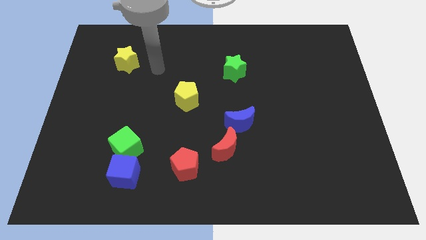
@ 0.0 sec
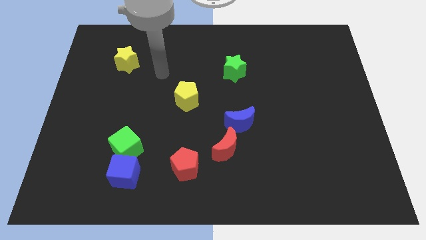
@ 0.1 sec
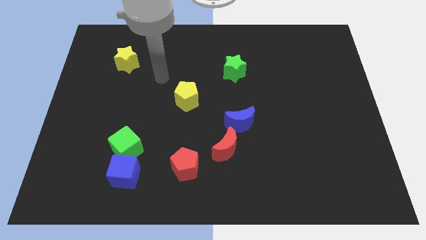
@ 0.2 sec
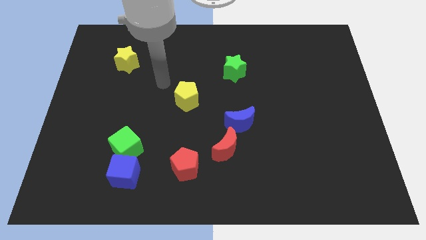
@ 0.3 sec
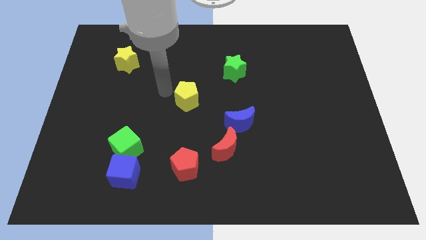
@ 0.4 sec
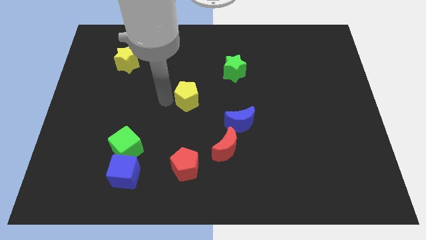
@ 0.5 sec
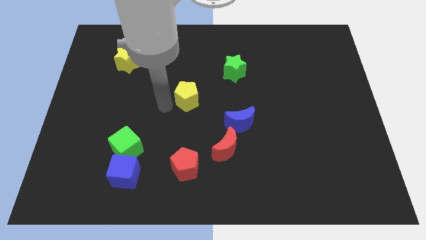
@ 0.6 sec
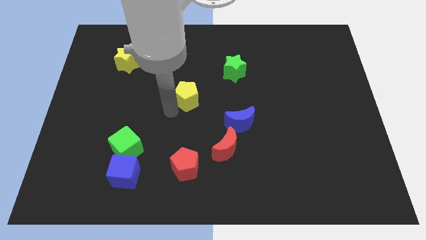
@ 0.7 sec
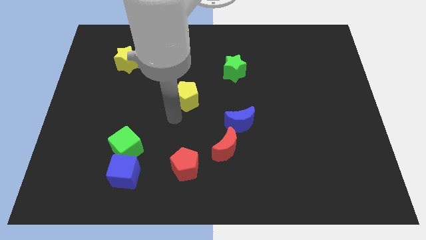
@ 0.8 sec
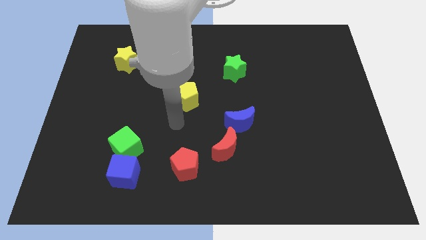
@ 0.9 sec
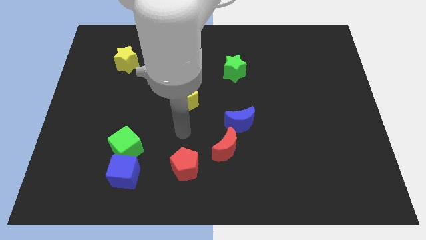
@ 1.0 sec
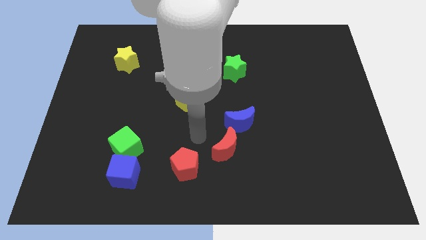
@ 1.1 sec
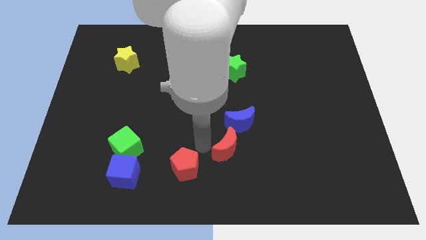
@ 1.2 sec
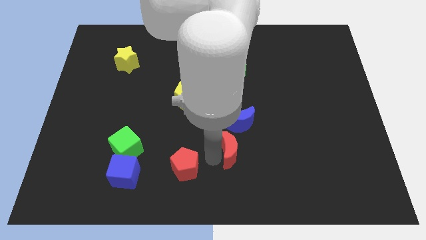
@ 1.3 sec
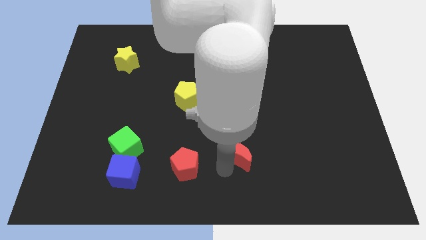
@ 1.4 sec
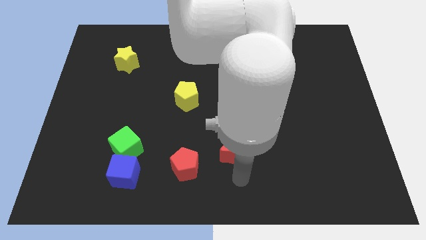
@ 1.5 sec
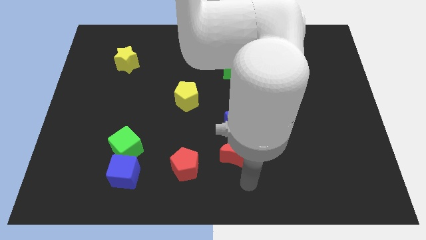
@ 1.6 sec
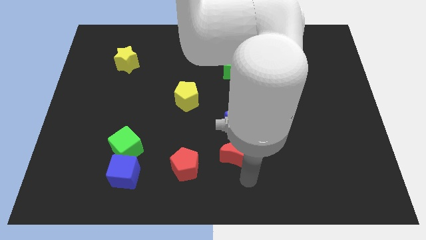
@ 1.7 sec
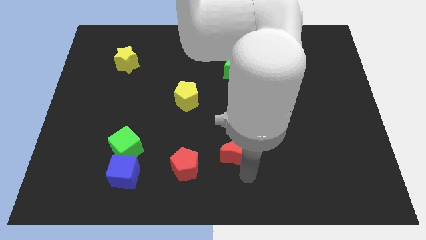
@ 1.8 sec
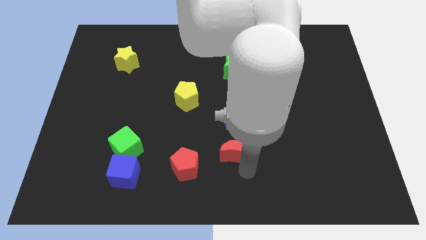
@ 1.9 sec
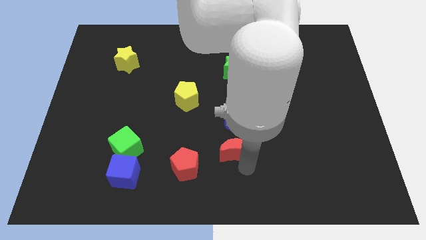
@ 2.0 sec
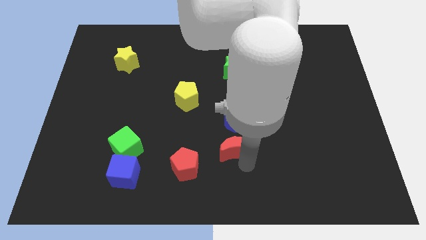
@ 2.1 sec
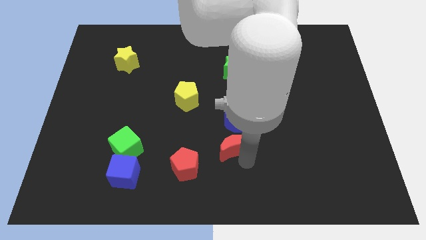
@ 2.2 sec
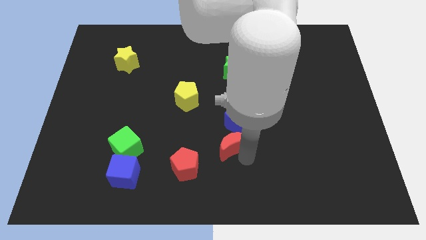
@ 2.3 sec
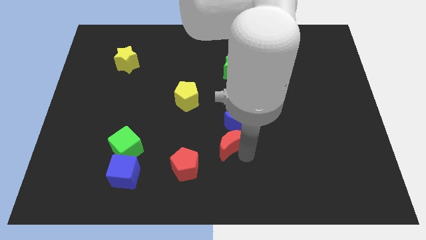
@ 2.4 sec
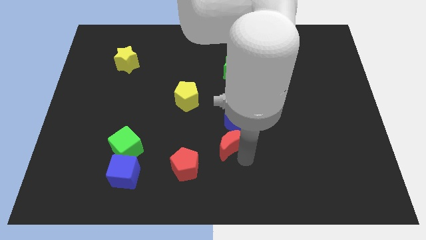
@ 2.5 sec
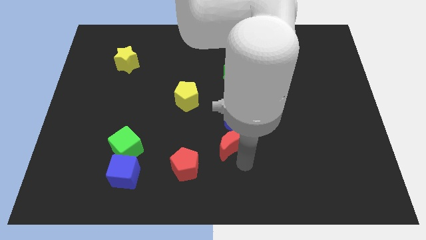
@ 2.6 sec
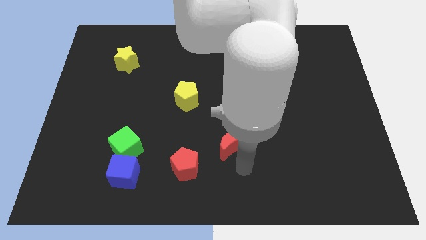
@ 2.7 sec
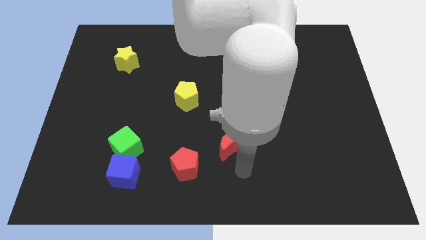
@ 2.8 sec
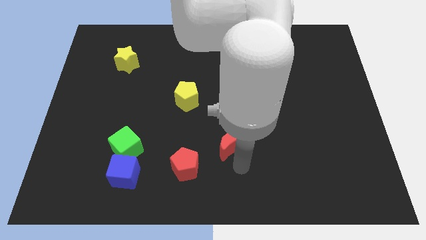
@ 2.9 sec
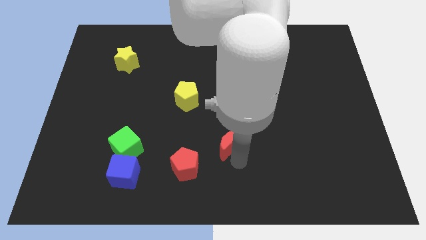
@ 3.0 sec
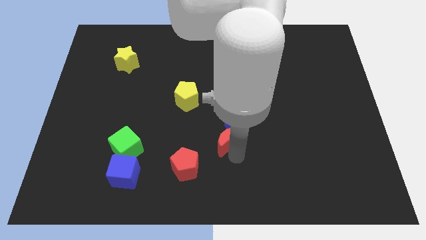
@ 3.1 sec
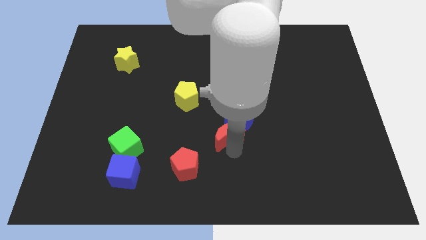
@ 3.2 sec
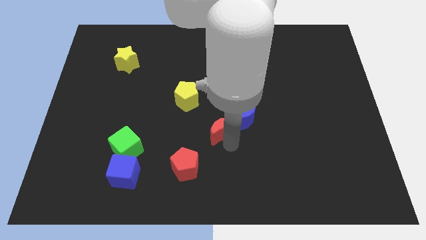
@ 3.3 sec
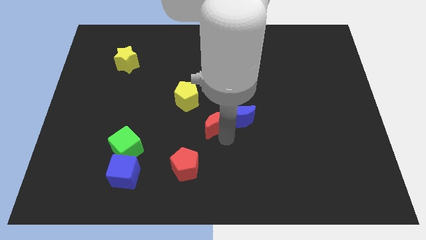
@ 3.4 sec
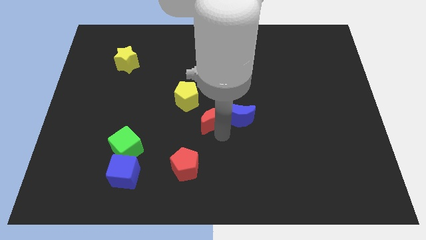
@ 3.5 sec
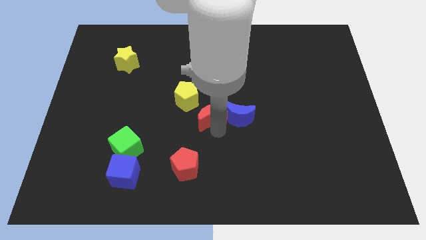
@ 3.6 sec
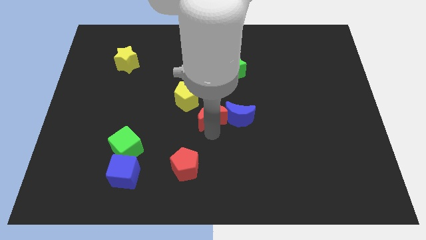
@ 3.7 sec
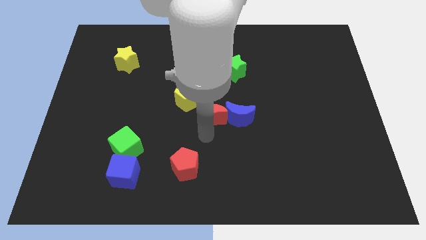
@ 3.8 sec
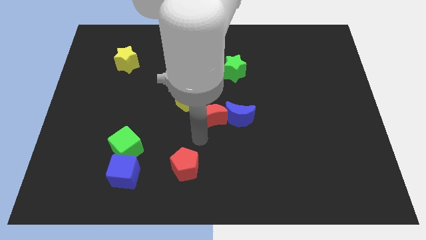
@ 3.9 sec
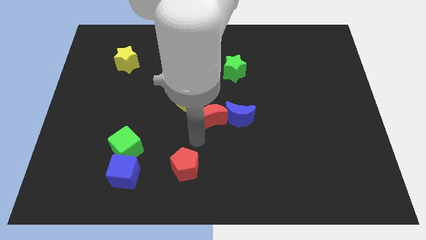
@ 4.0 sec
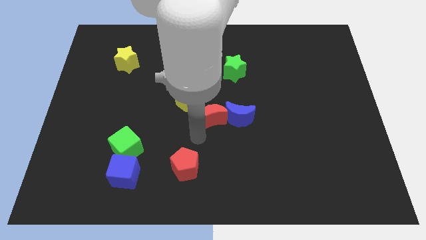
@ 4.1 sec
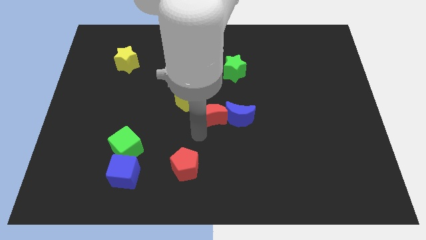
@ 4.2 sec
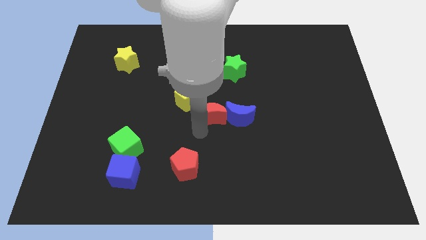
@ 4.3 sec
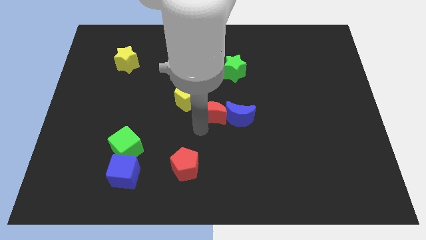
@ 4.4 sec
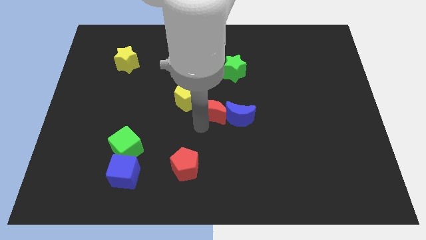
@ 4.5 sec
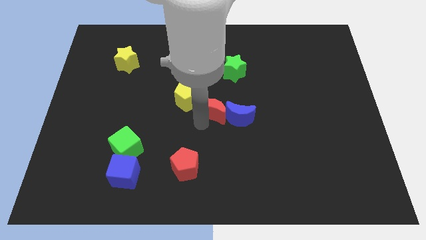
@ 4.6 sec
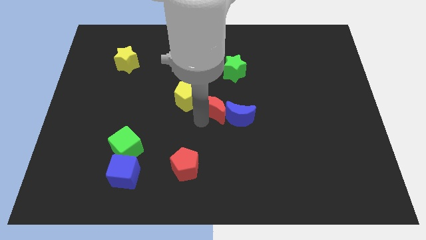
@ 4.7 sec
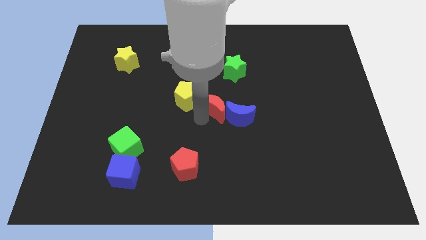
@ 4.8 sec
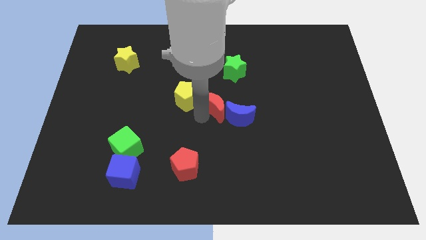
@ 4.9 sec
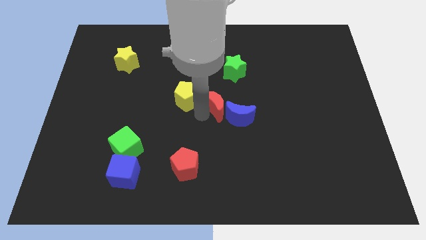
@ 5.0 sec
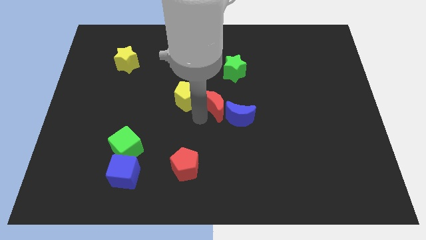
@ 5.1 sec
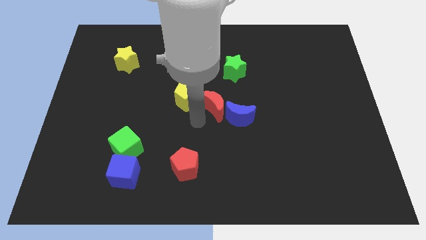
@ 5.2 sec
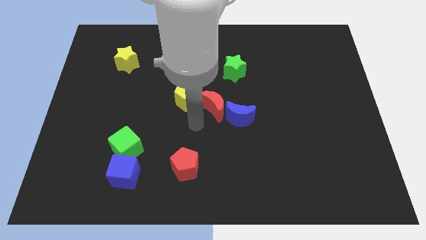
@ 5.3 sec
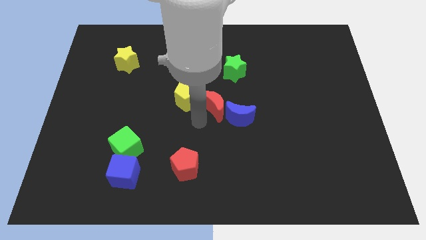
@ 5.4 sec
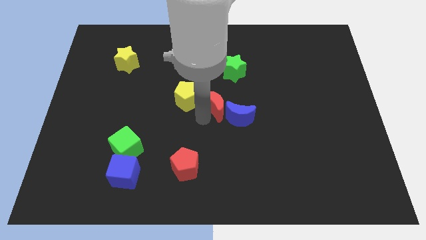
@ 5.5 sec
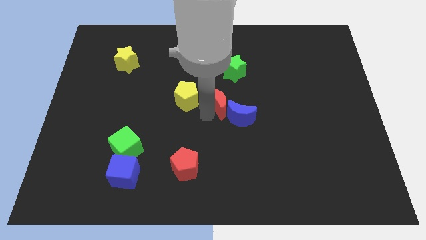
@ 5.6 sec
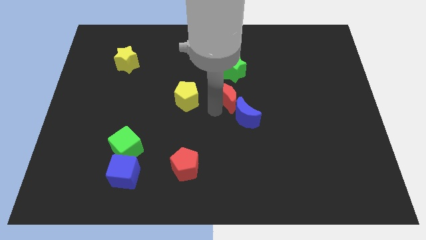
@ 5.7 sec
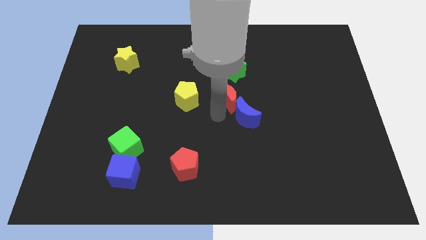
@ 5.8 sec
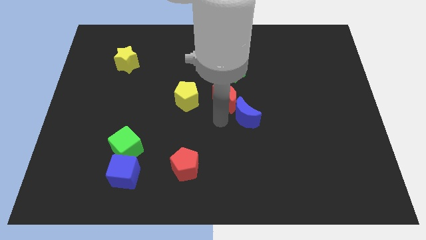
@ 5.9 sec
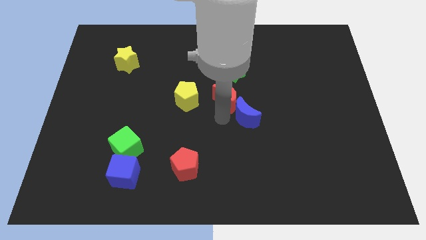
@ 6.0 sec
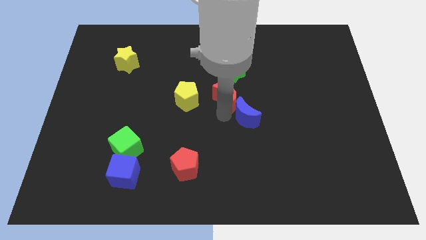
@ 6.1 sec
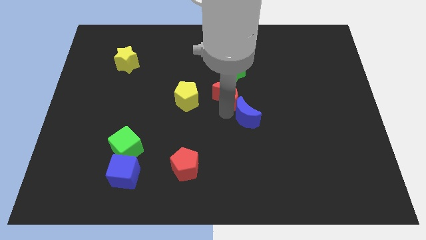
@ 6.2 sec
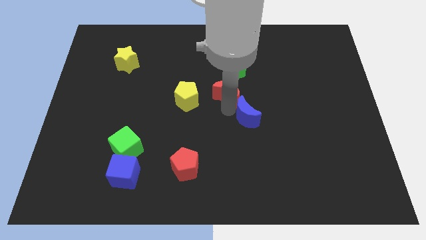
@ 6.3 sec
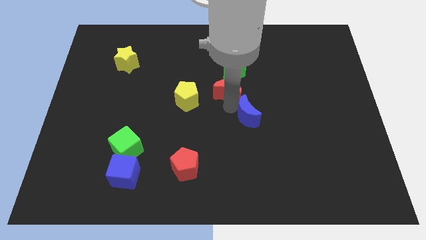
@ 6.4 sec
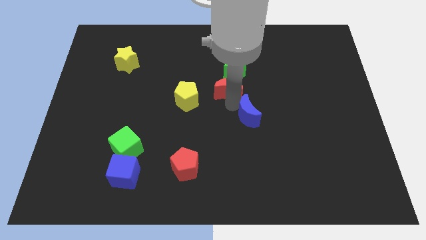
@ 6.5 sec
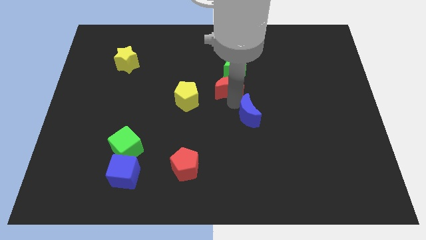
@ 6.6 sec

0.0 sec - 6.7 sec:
put the red moon close to the green star
